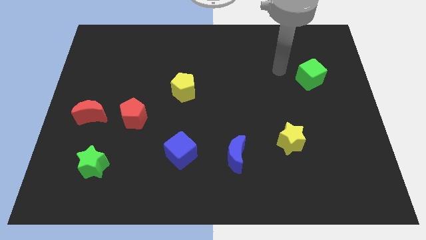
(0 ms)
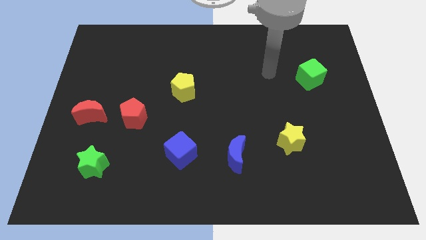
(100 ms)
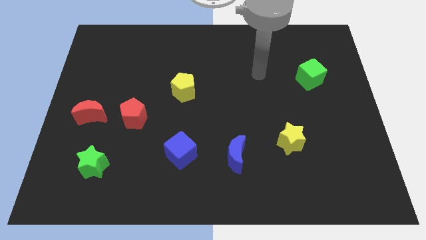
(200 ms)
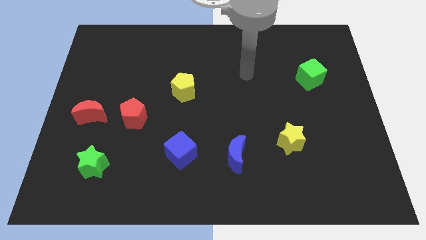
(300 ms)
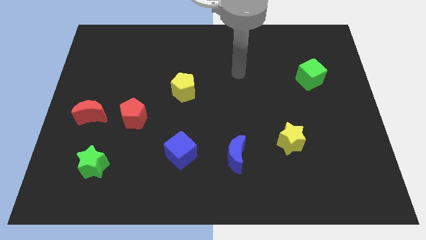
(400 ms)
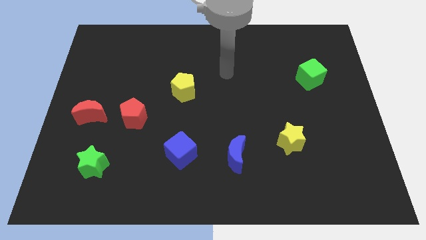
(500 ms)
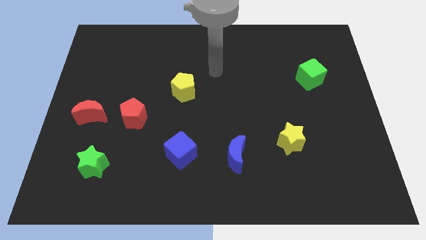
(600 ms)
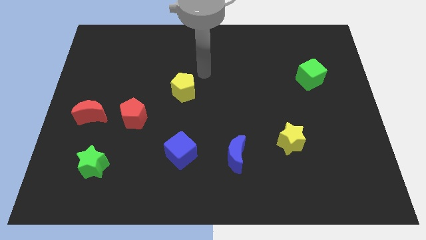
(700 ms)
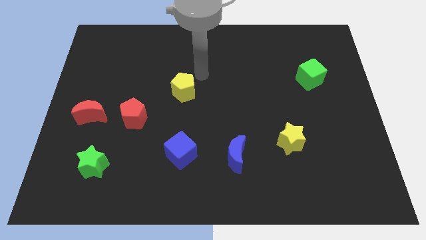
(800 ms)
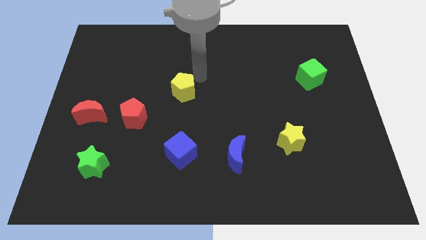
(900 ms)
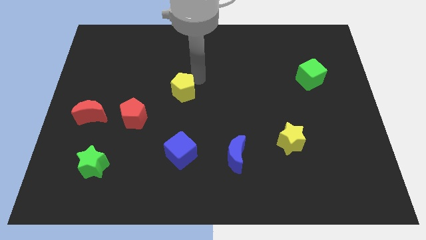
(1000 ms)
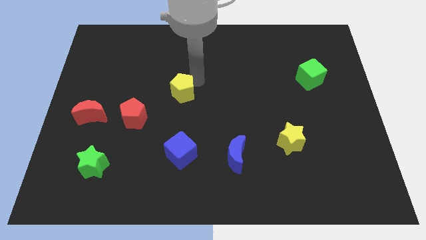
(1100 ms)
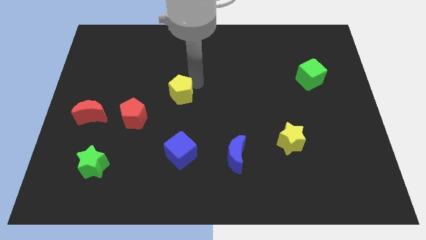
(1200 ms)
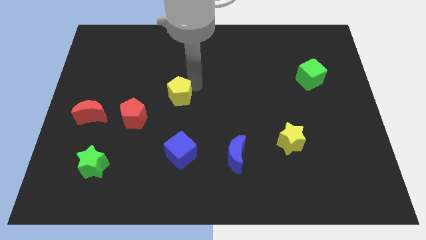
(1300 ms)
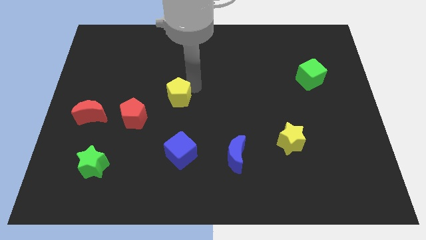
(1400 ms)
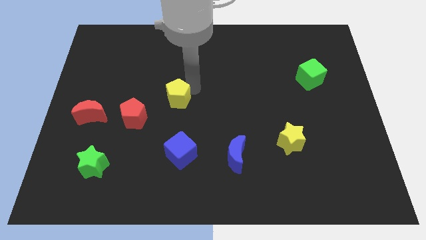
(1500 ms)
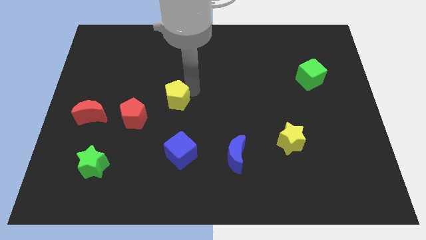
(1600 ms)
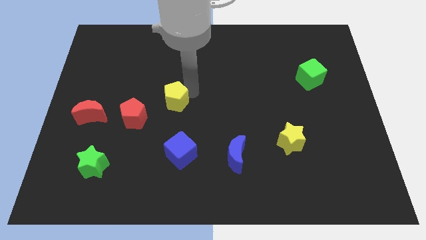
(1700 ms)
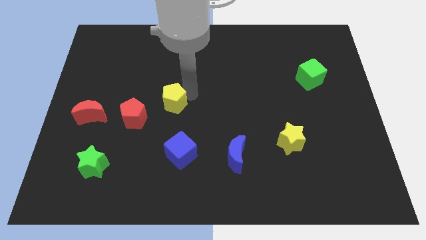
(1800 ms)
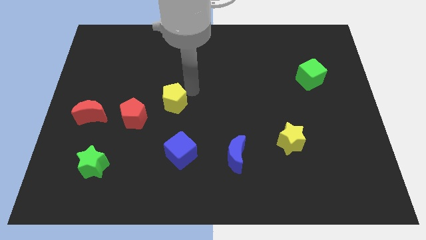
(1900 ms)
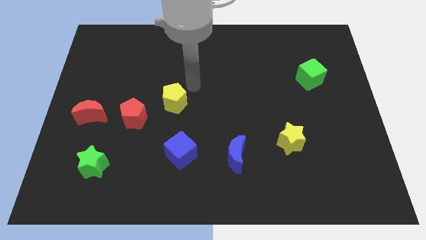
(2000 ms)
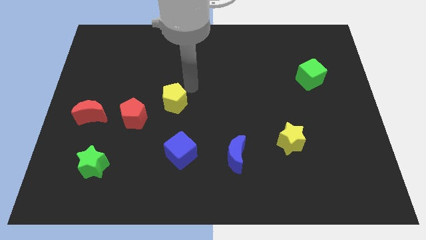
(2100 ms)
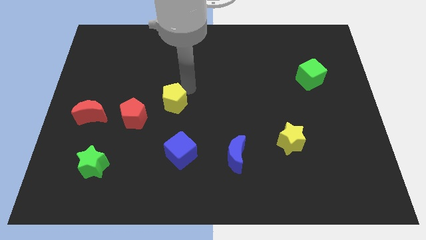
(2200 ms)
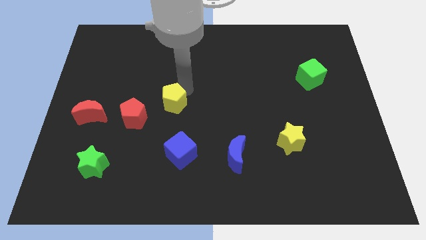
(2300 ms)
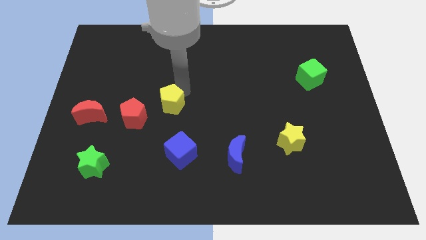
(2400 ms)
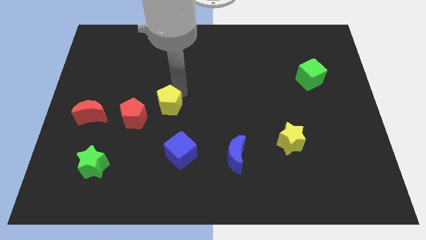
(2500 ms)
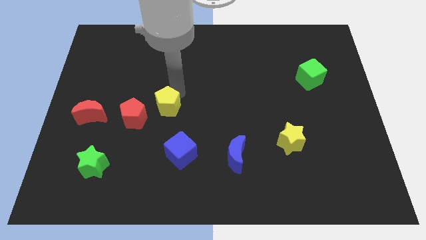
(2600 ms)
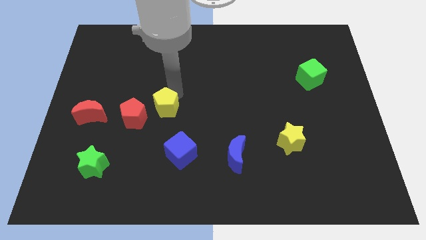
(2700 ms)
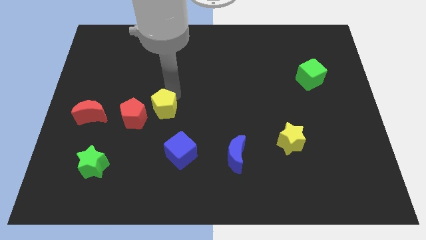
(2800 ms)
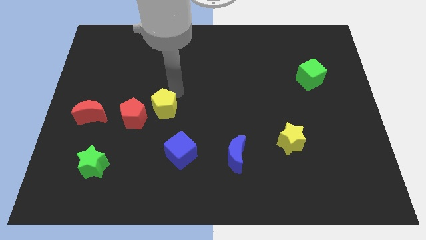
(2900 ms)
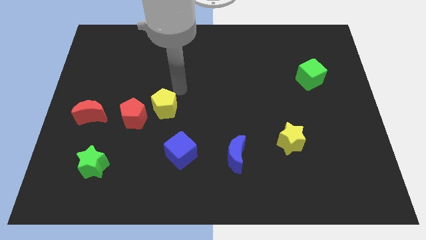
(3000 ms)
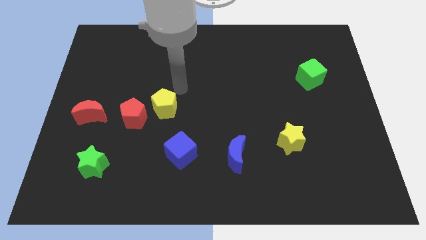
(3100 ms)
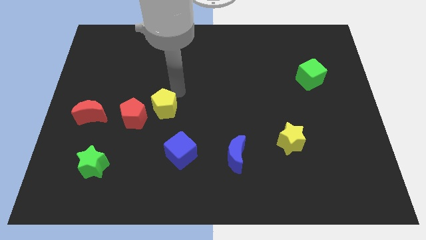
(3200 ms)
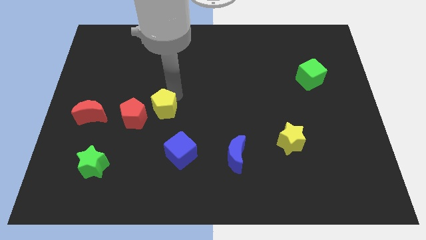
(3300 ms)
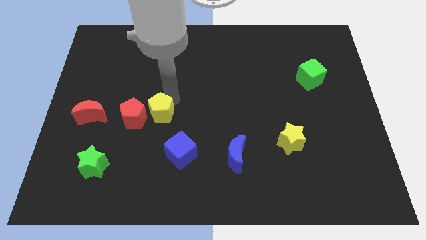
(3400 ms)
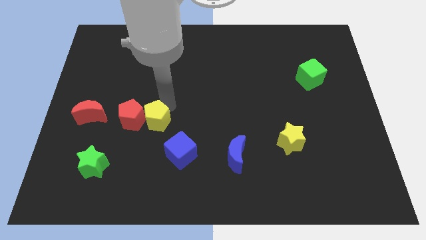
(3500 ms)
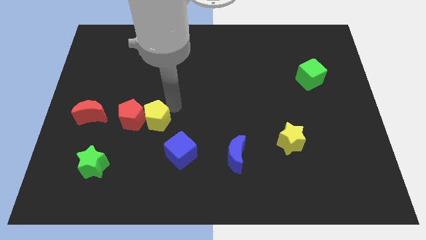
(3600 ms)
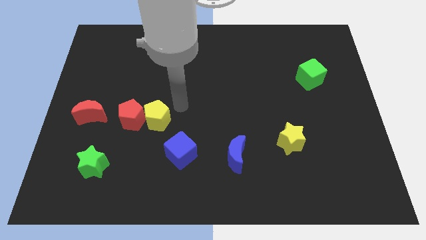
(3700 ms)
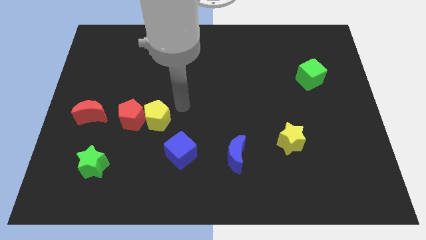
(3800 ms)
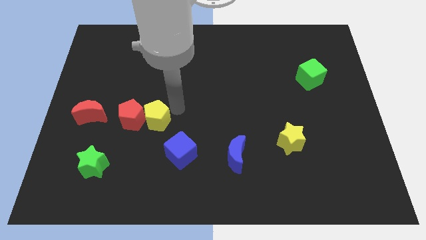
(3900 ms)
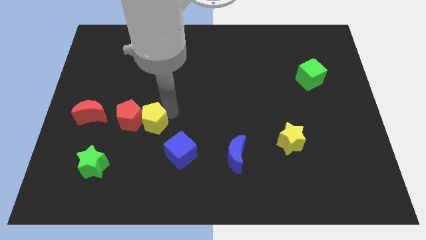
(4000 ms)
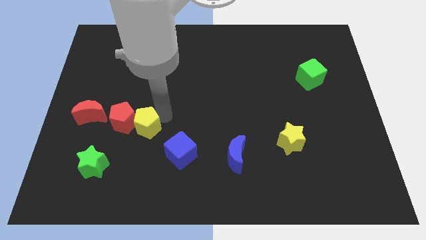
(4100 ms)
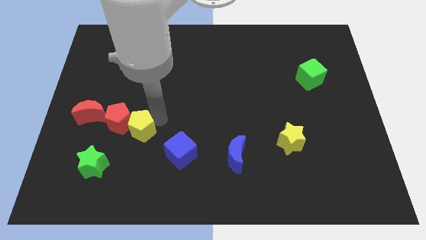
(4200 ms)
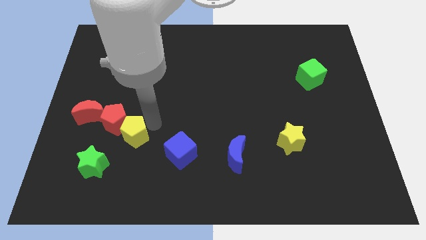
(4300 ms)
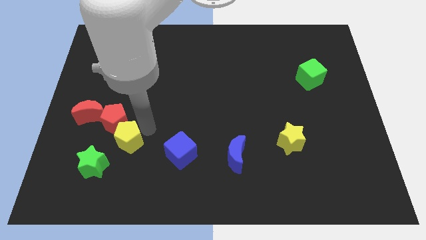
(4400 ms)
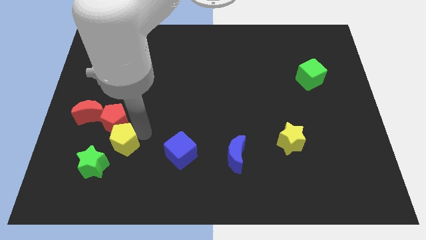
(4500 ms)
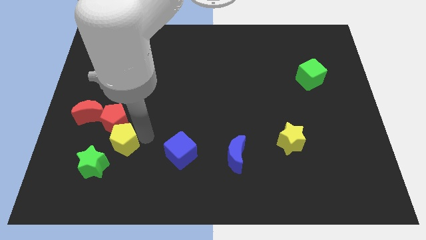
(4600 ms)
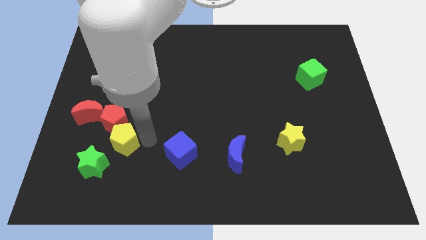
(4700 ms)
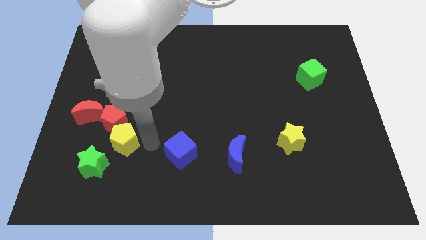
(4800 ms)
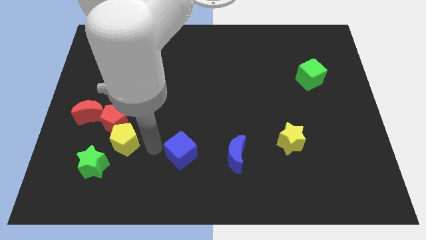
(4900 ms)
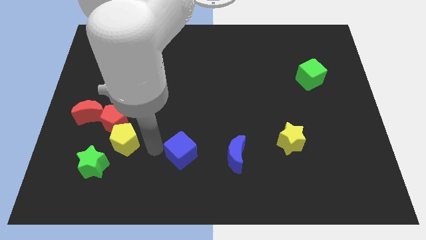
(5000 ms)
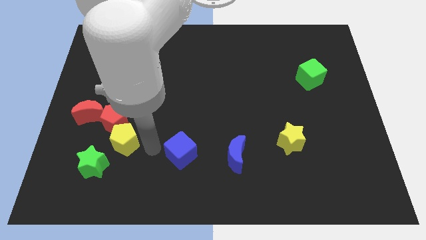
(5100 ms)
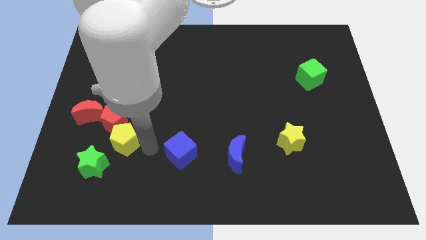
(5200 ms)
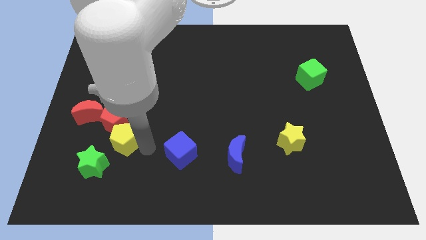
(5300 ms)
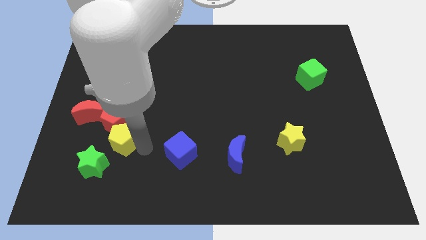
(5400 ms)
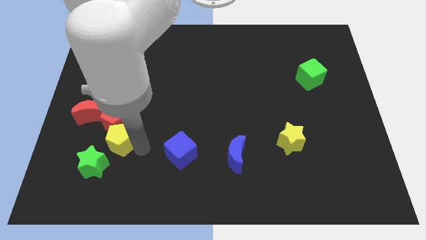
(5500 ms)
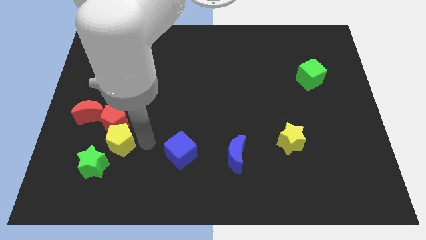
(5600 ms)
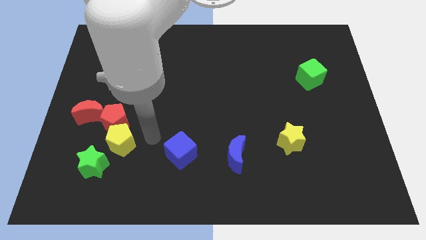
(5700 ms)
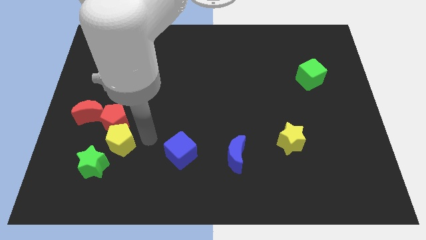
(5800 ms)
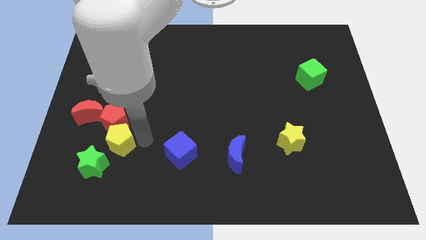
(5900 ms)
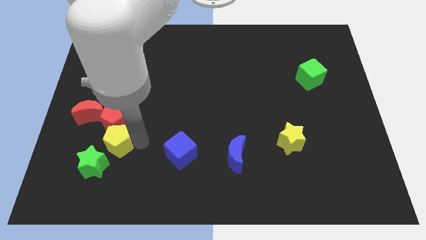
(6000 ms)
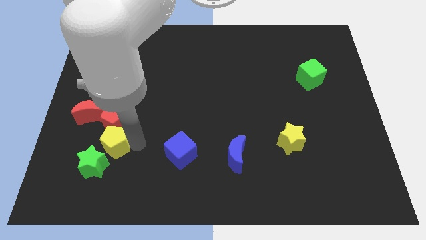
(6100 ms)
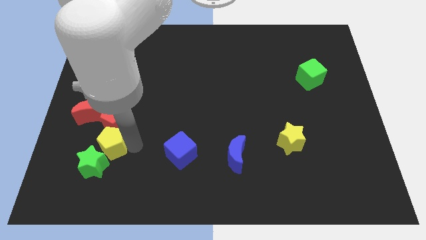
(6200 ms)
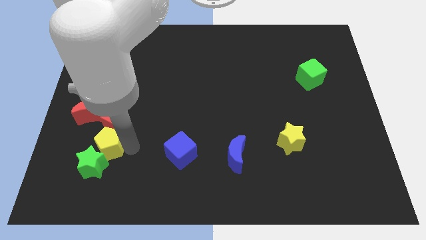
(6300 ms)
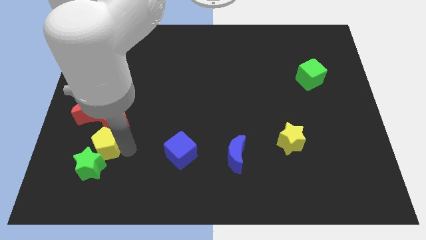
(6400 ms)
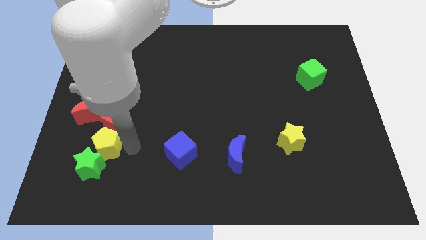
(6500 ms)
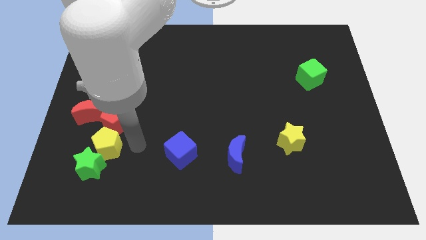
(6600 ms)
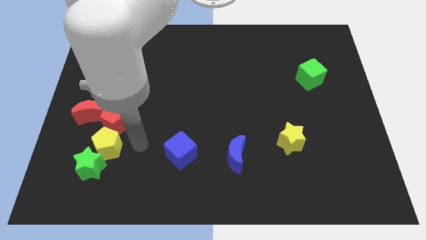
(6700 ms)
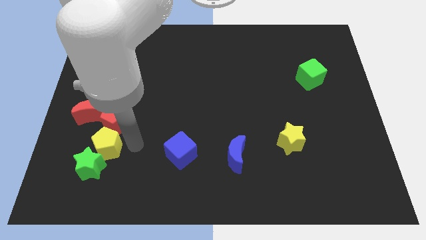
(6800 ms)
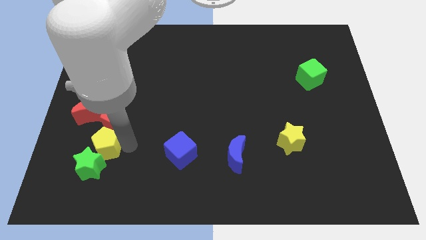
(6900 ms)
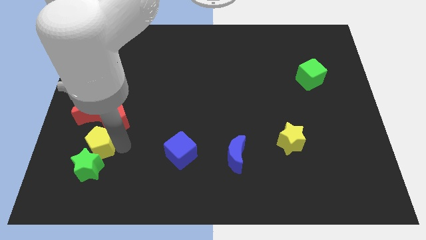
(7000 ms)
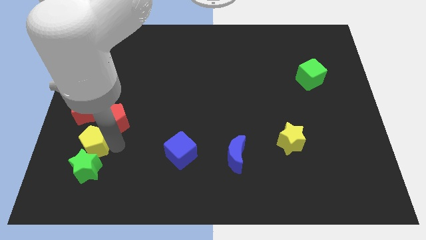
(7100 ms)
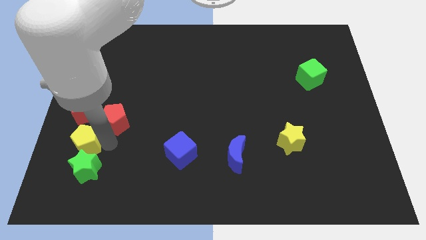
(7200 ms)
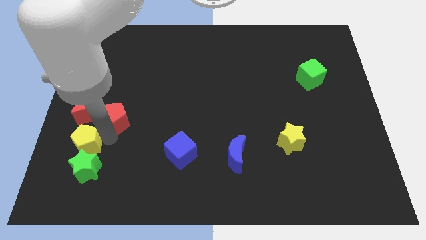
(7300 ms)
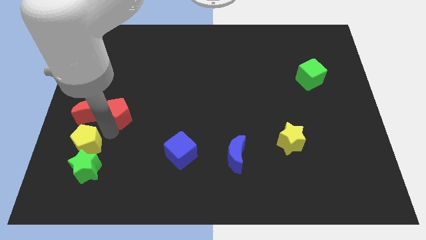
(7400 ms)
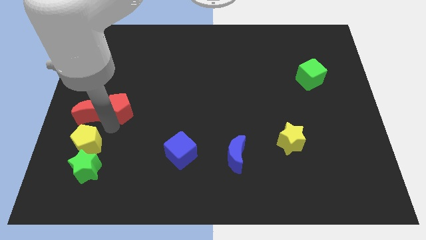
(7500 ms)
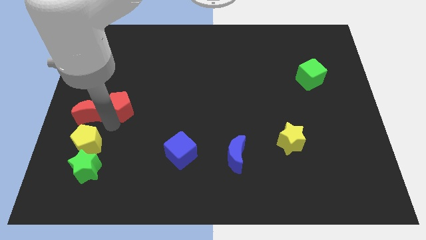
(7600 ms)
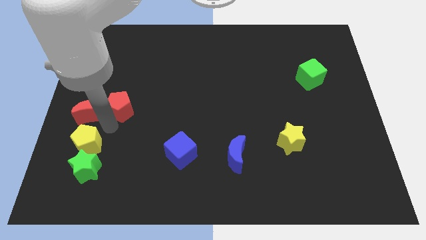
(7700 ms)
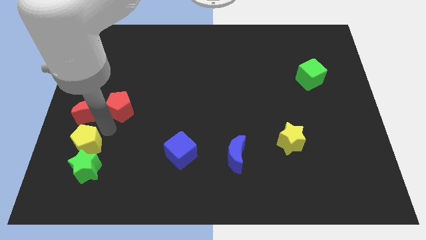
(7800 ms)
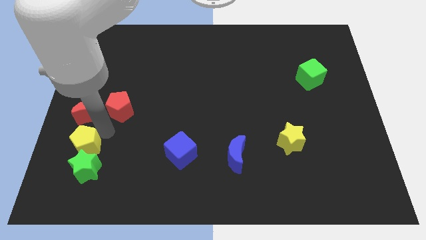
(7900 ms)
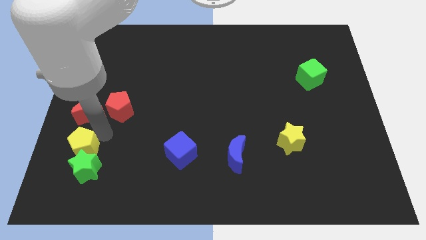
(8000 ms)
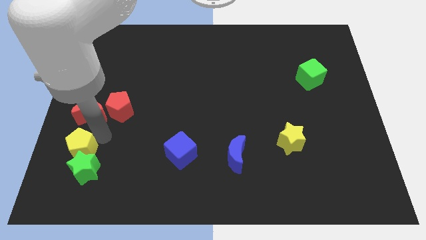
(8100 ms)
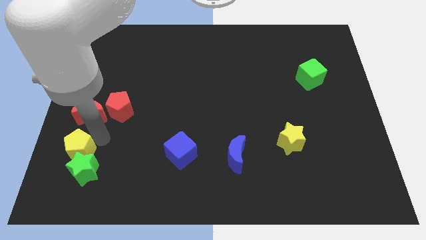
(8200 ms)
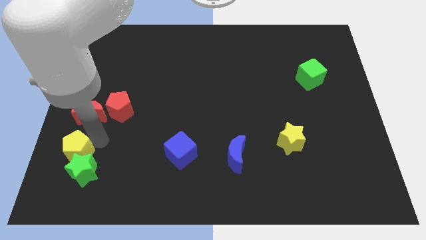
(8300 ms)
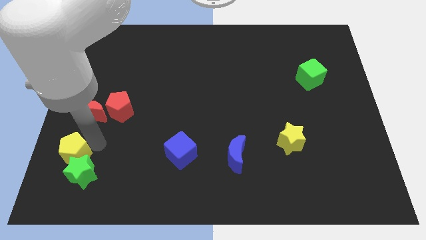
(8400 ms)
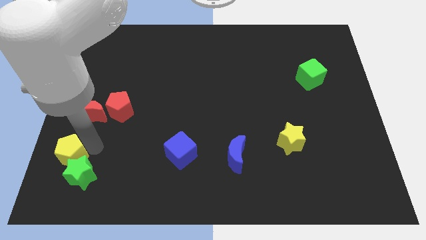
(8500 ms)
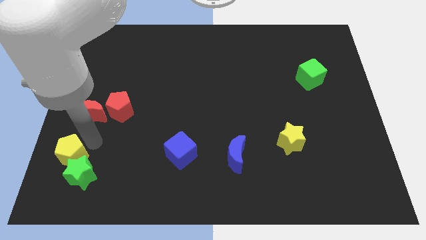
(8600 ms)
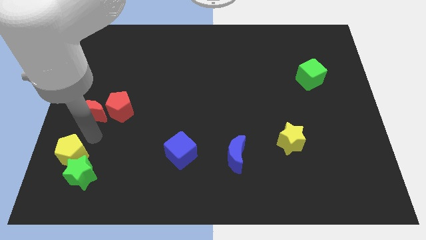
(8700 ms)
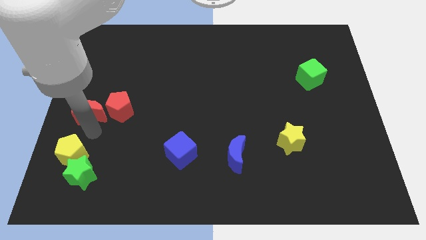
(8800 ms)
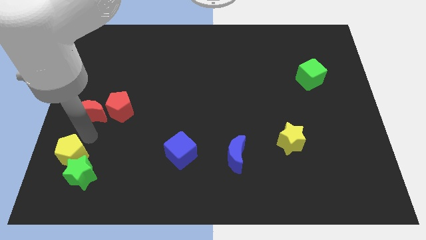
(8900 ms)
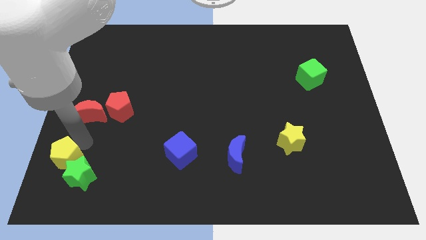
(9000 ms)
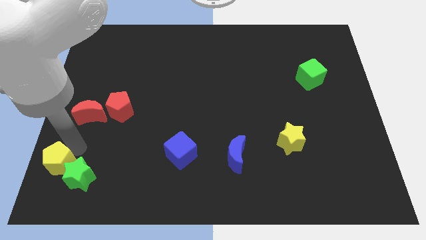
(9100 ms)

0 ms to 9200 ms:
put the yellow pentagon to the bottom left corner
